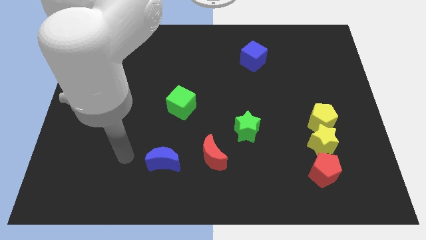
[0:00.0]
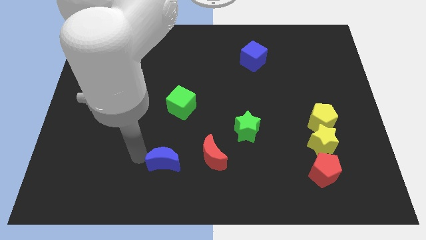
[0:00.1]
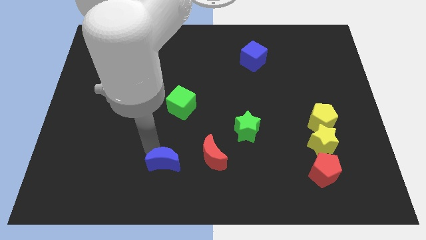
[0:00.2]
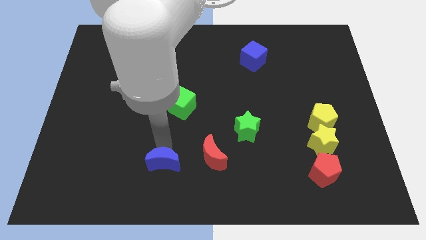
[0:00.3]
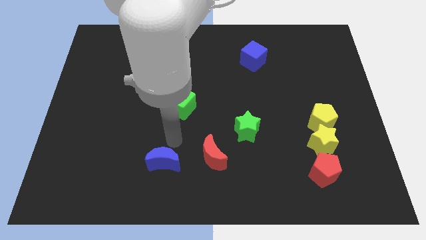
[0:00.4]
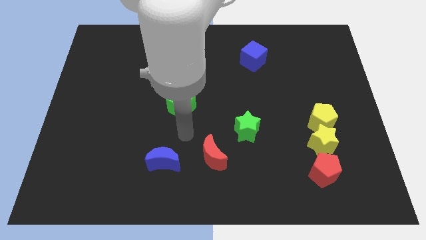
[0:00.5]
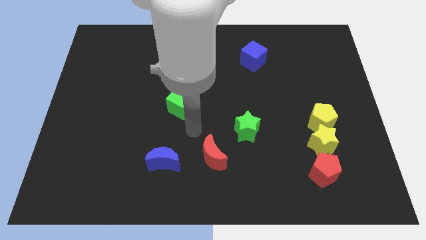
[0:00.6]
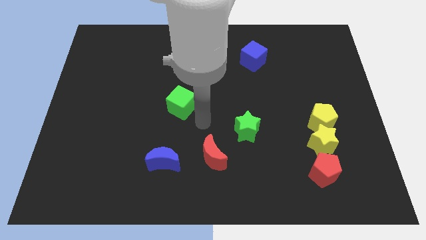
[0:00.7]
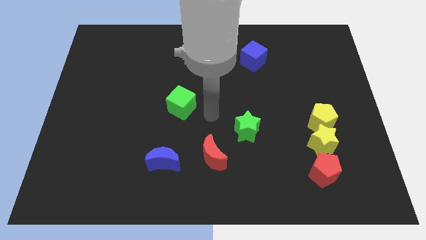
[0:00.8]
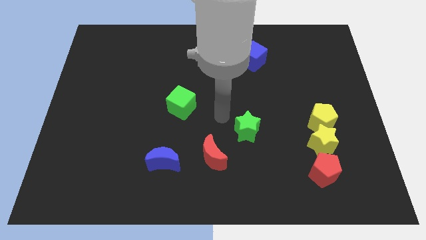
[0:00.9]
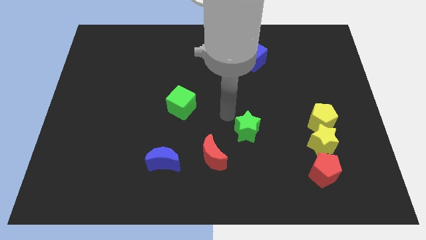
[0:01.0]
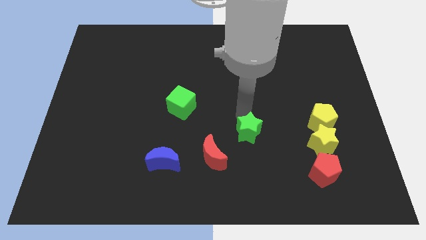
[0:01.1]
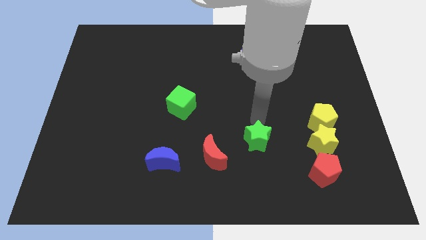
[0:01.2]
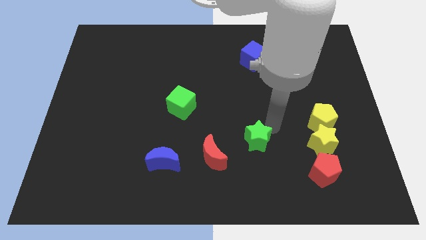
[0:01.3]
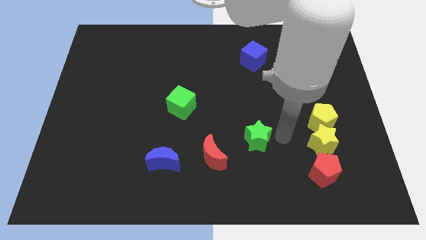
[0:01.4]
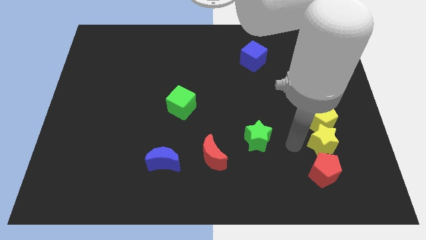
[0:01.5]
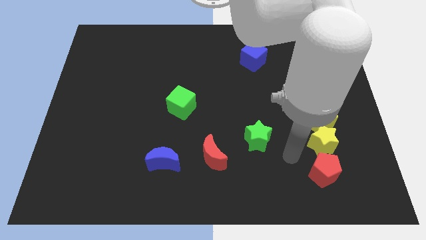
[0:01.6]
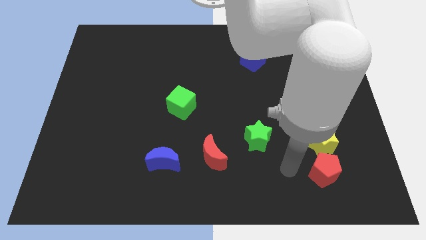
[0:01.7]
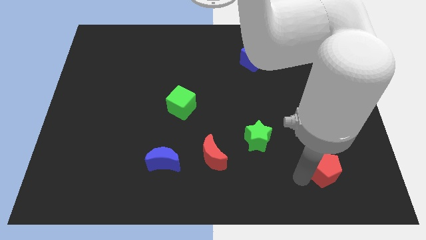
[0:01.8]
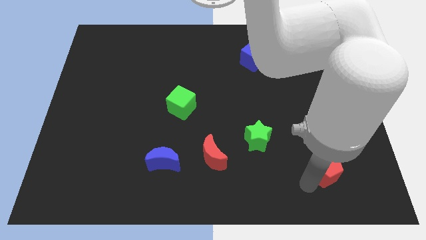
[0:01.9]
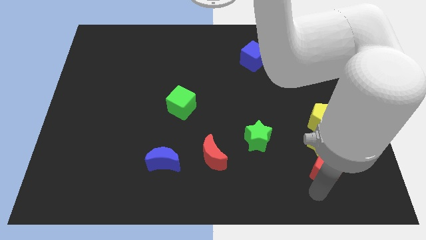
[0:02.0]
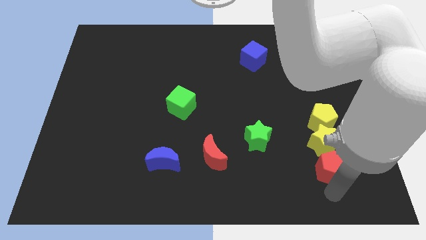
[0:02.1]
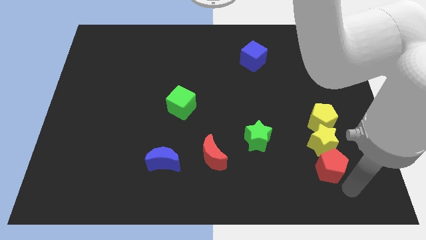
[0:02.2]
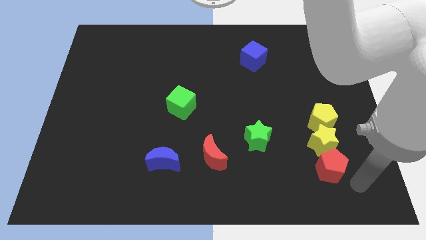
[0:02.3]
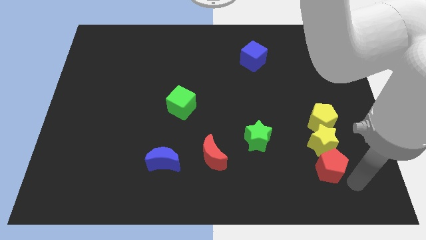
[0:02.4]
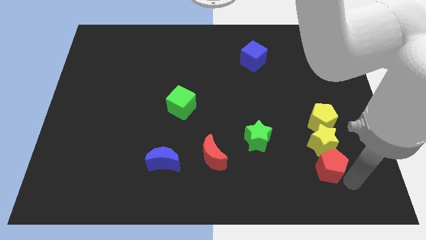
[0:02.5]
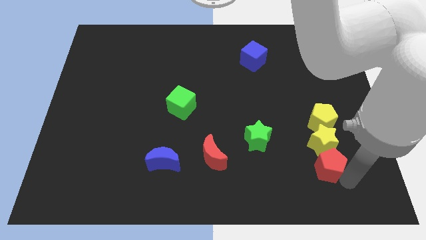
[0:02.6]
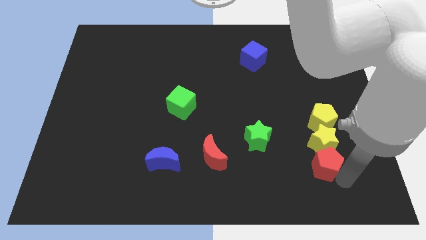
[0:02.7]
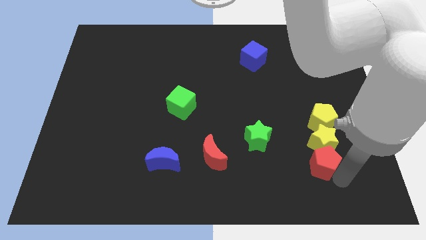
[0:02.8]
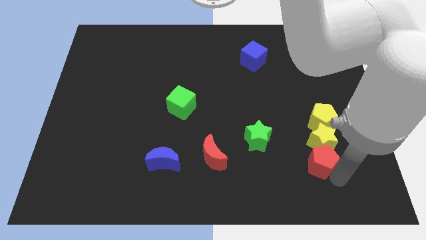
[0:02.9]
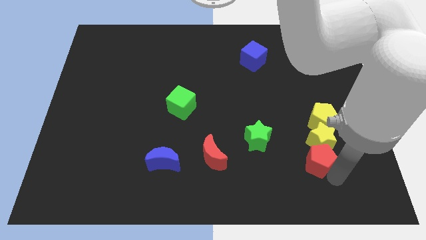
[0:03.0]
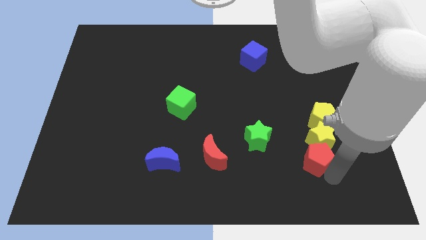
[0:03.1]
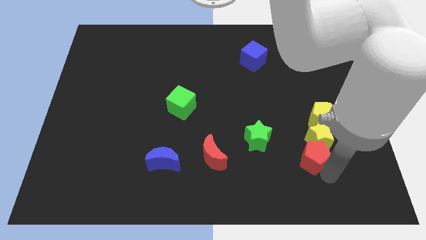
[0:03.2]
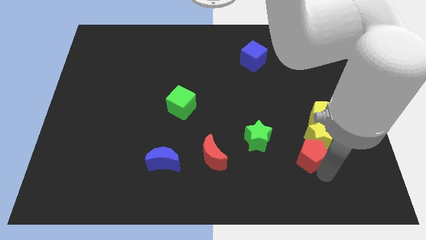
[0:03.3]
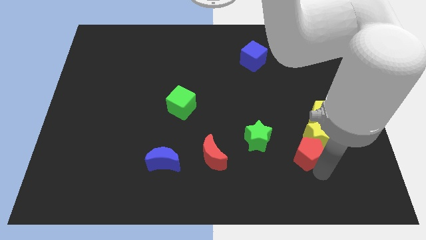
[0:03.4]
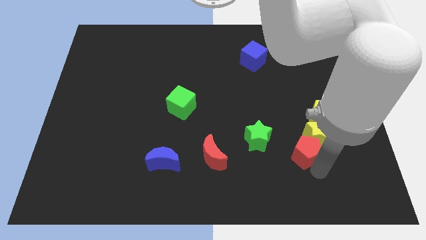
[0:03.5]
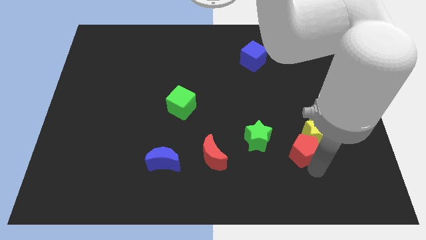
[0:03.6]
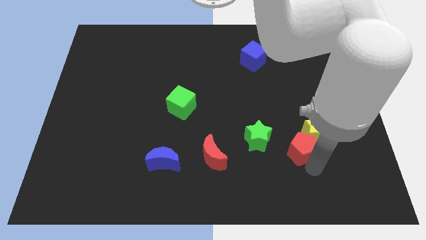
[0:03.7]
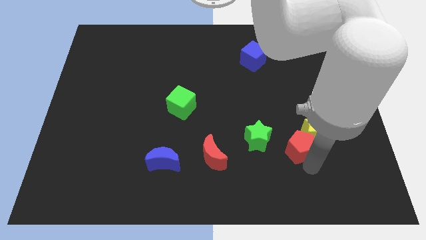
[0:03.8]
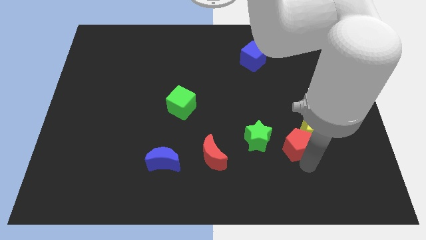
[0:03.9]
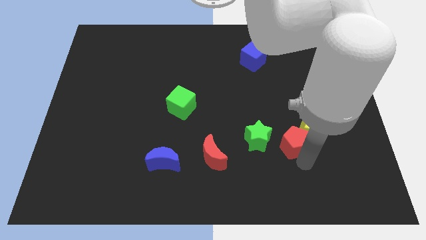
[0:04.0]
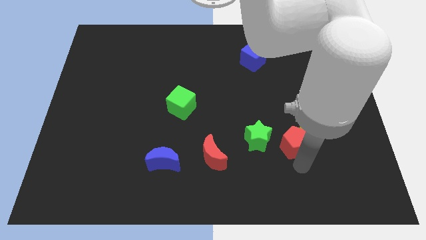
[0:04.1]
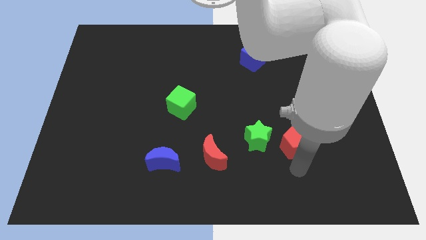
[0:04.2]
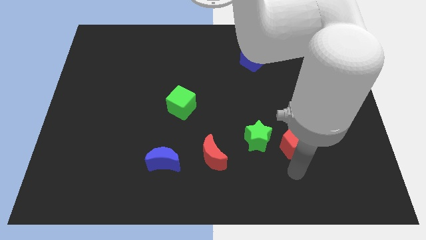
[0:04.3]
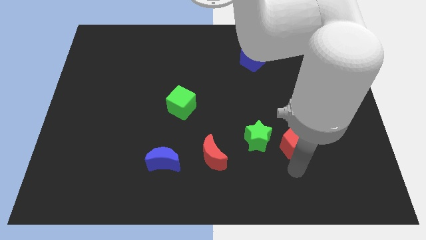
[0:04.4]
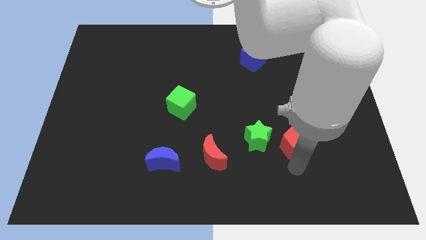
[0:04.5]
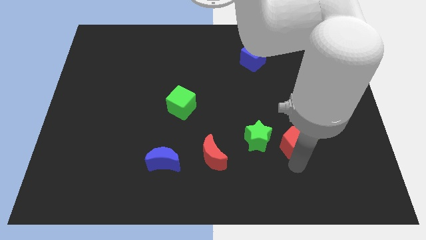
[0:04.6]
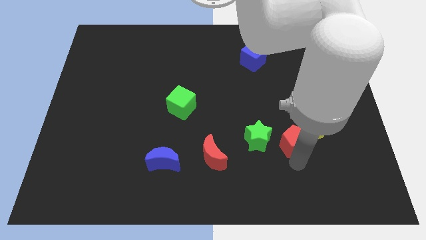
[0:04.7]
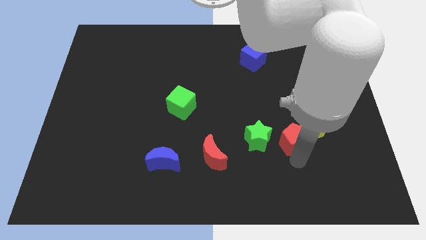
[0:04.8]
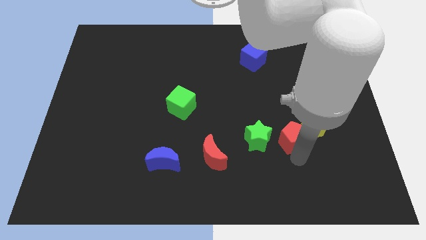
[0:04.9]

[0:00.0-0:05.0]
slightly push the red pentagon upwards

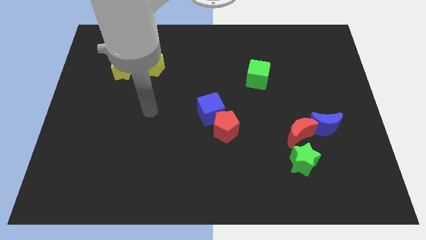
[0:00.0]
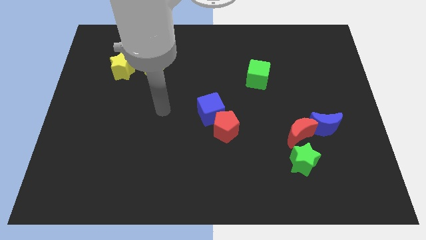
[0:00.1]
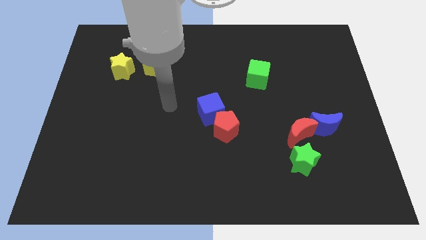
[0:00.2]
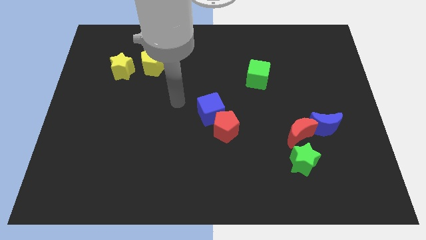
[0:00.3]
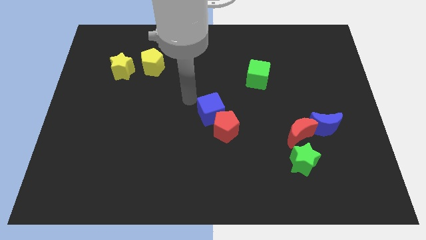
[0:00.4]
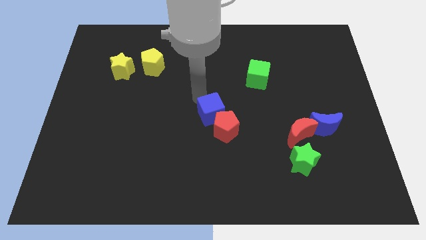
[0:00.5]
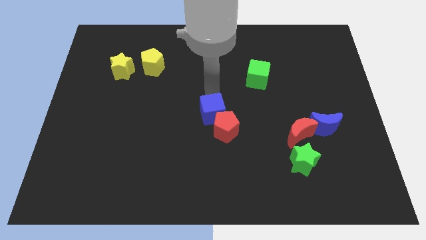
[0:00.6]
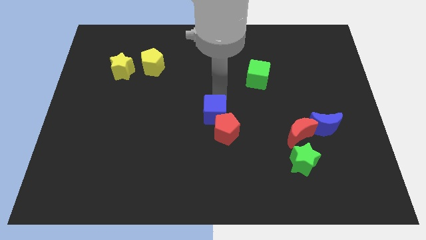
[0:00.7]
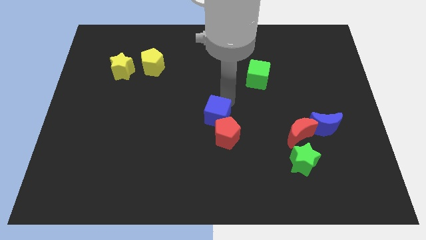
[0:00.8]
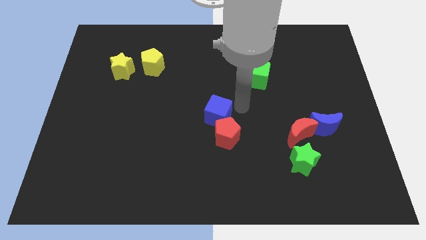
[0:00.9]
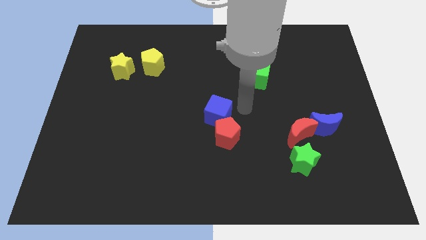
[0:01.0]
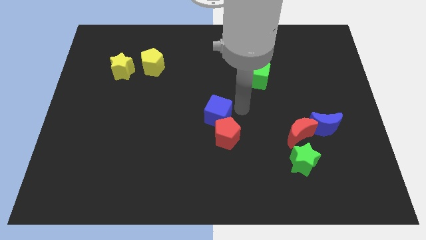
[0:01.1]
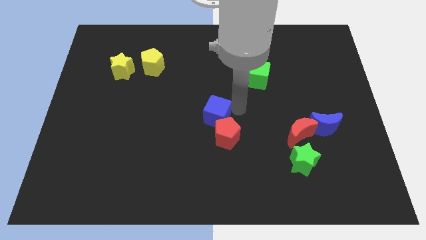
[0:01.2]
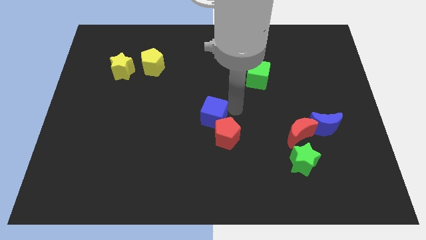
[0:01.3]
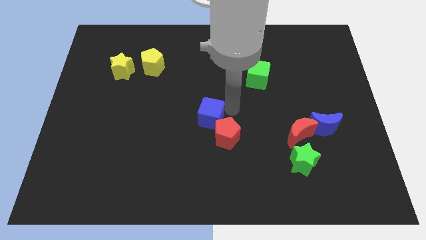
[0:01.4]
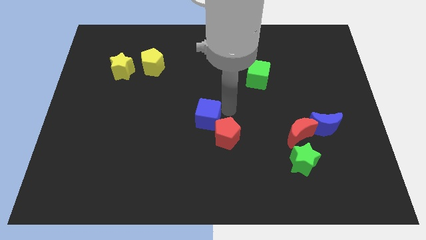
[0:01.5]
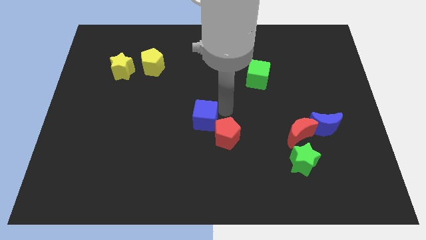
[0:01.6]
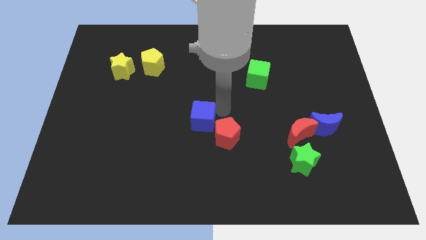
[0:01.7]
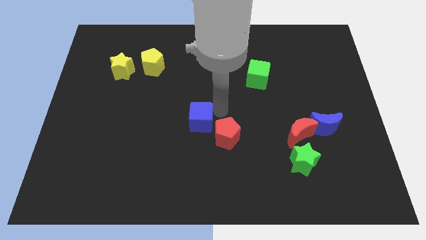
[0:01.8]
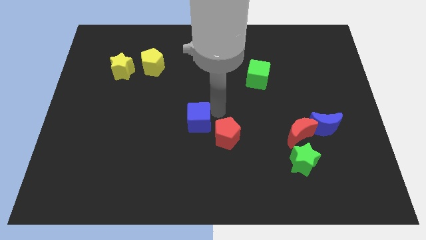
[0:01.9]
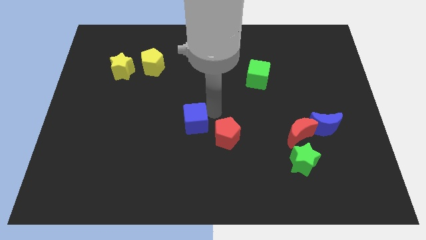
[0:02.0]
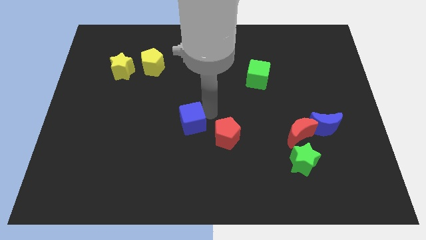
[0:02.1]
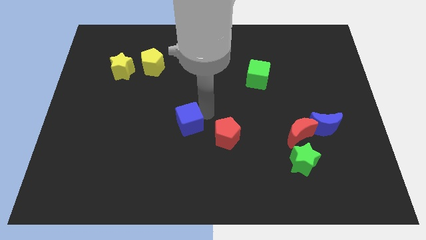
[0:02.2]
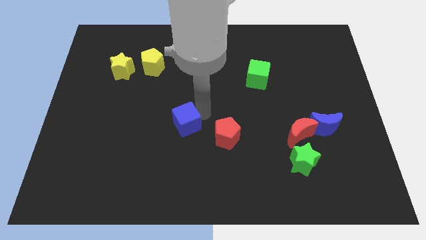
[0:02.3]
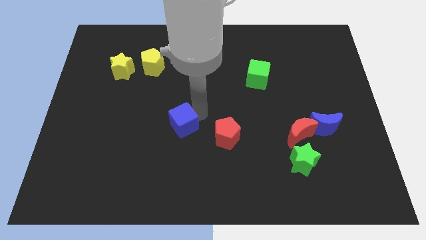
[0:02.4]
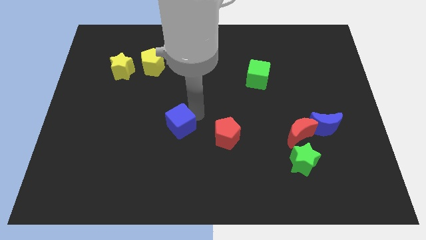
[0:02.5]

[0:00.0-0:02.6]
move the blue cube somewhat down and to the left diagonally

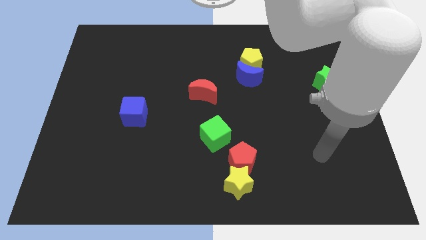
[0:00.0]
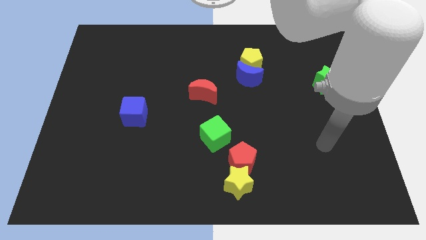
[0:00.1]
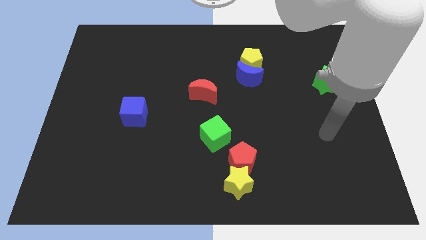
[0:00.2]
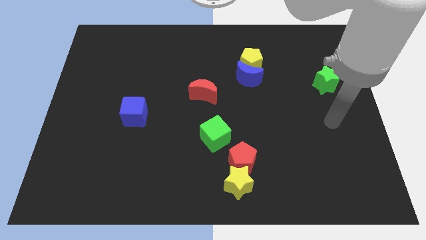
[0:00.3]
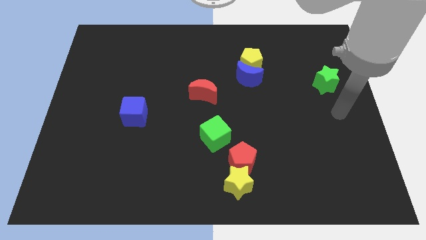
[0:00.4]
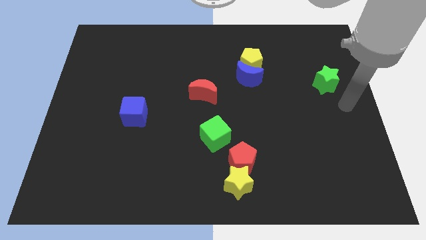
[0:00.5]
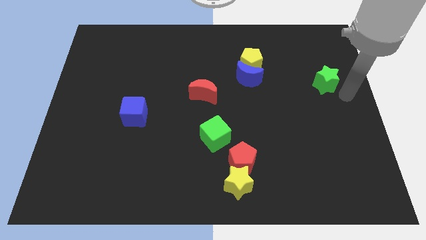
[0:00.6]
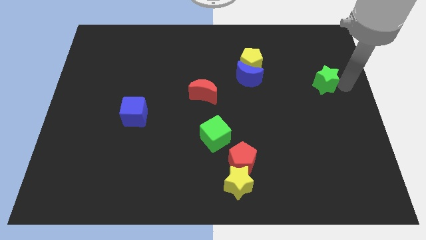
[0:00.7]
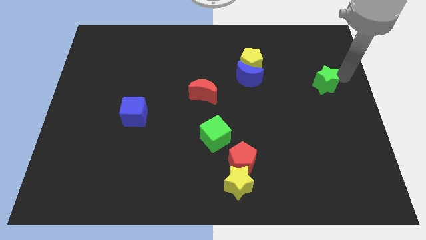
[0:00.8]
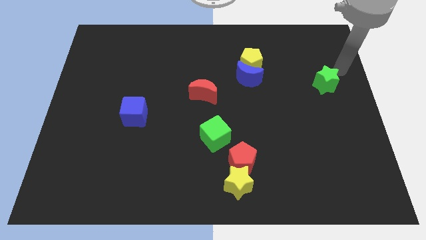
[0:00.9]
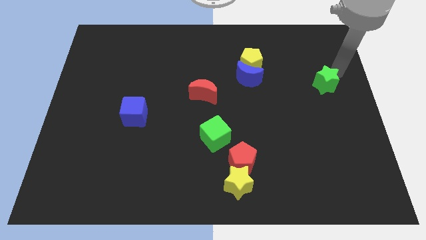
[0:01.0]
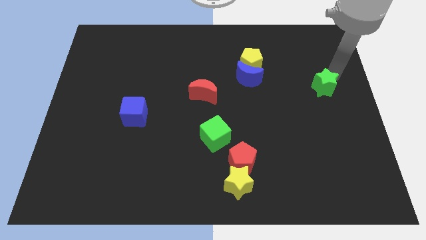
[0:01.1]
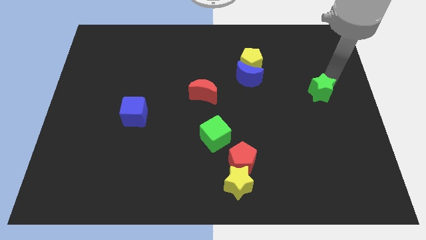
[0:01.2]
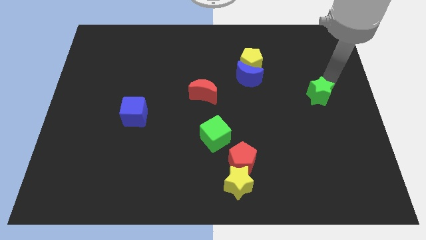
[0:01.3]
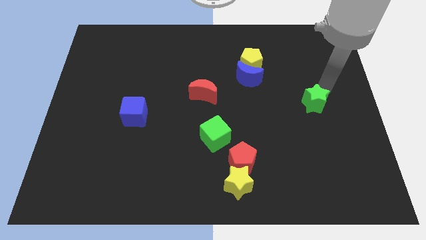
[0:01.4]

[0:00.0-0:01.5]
slightly move the green star down and left diagonally
